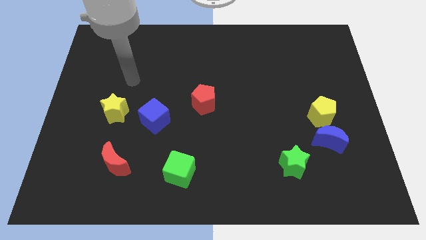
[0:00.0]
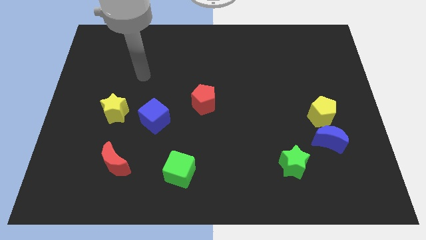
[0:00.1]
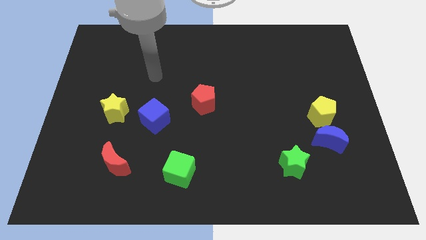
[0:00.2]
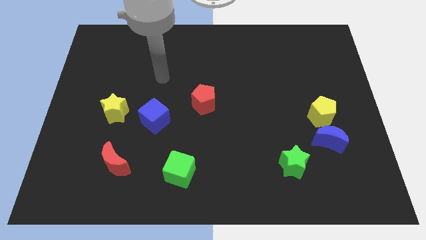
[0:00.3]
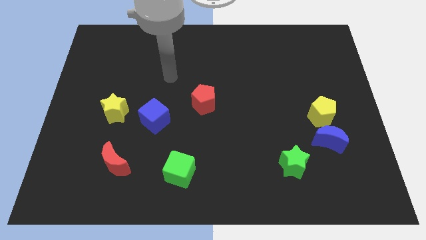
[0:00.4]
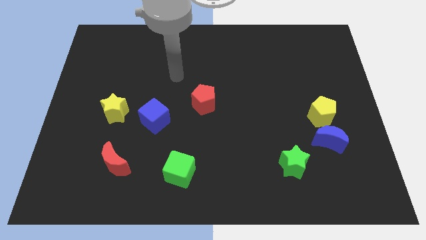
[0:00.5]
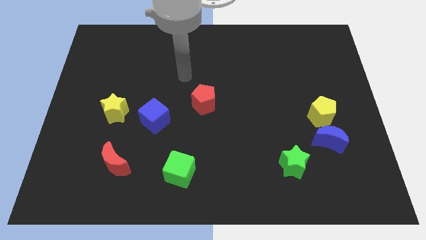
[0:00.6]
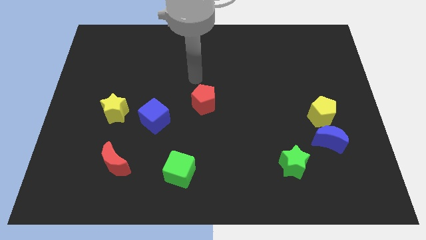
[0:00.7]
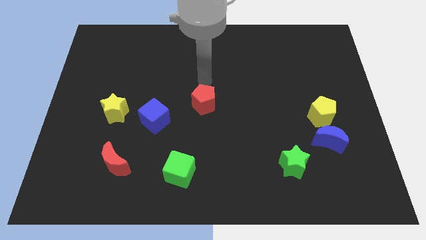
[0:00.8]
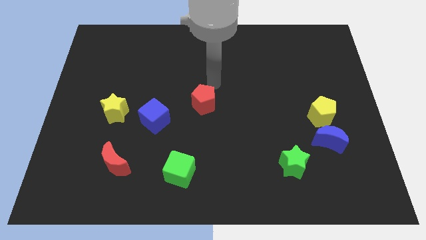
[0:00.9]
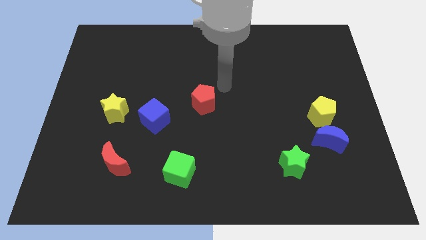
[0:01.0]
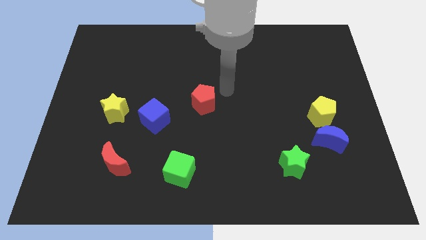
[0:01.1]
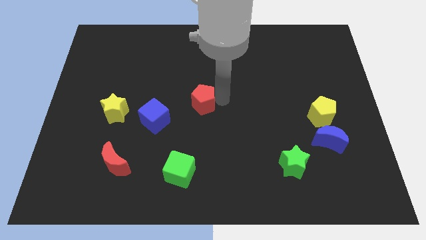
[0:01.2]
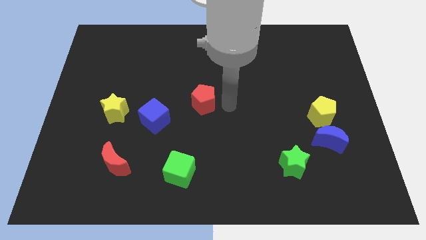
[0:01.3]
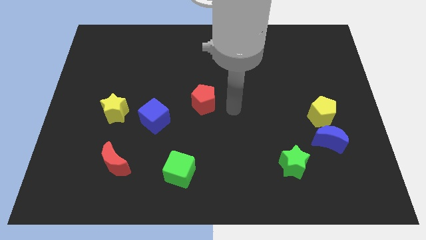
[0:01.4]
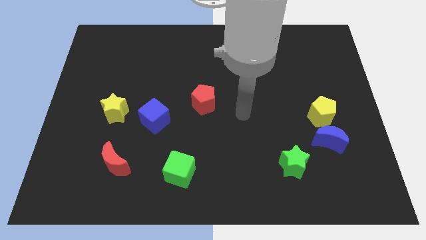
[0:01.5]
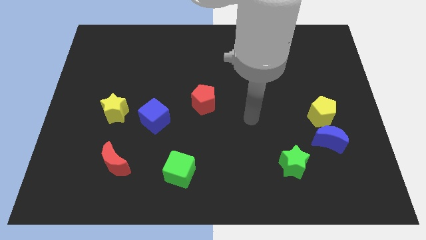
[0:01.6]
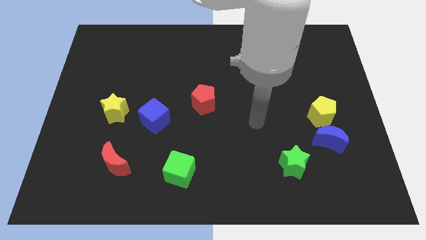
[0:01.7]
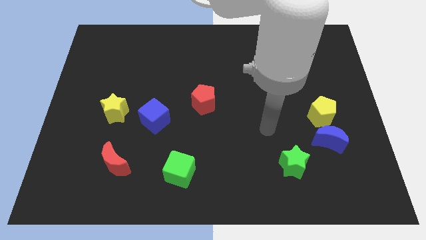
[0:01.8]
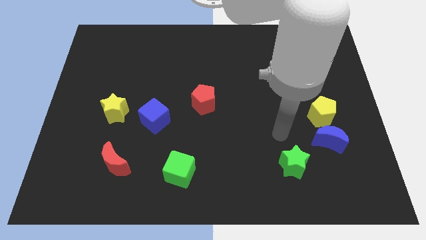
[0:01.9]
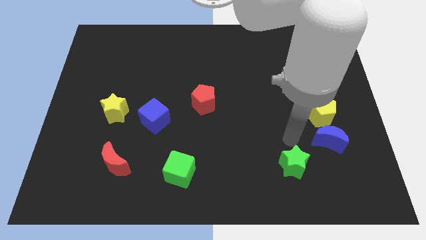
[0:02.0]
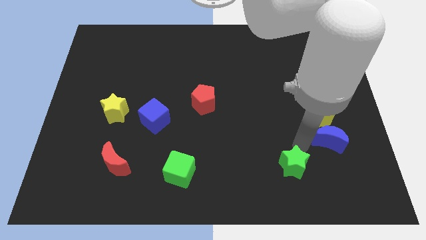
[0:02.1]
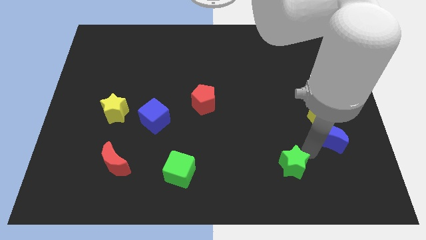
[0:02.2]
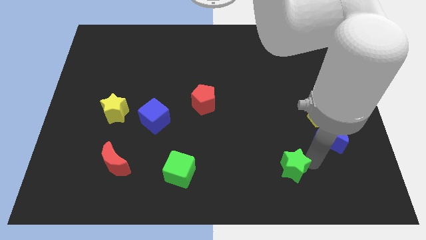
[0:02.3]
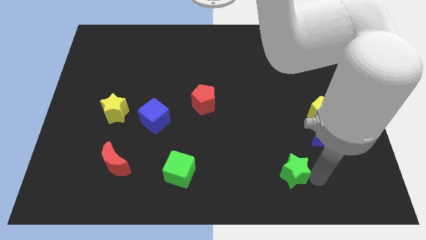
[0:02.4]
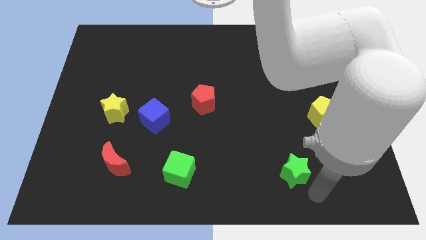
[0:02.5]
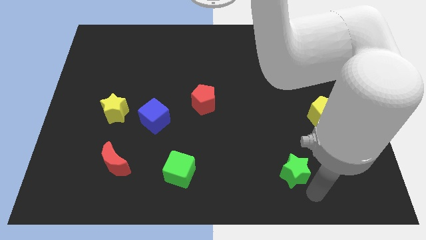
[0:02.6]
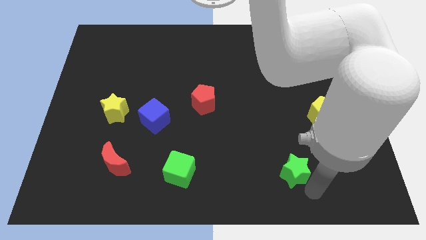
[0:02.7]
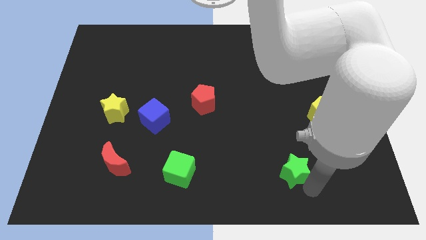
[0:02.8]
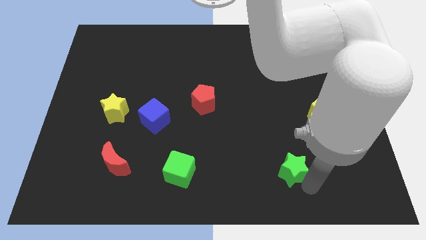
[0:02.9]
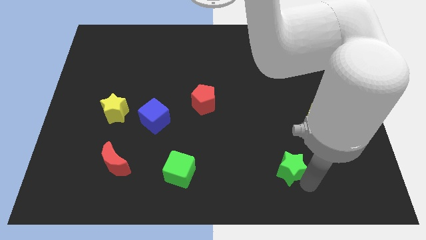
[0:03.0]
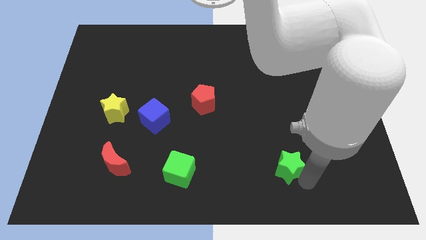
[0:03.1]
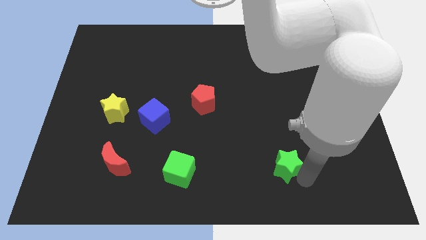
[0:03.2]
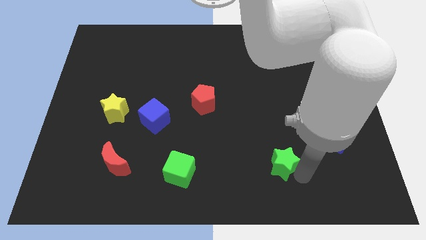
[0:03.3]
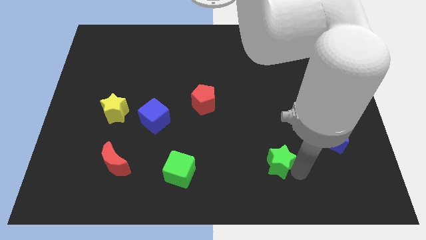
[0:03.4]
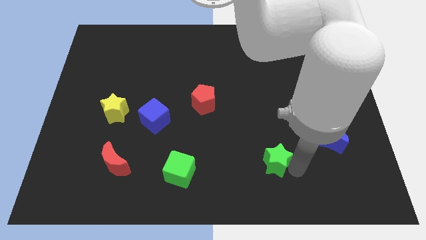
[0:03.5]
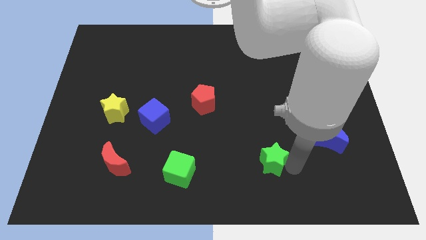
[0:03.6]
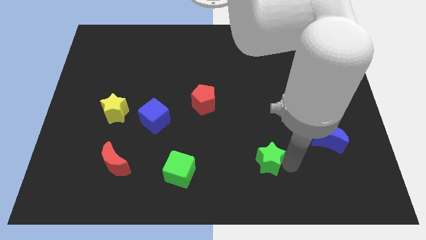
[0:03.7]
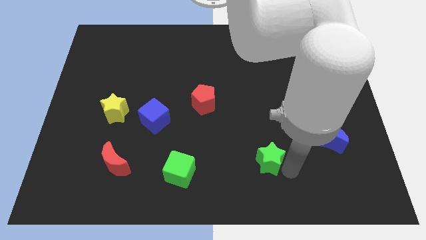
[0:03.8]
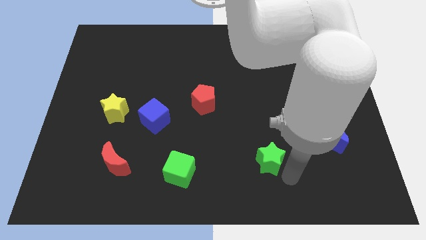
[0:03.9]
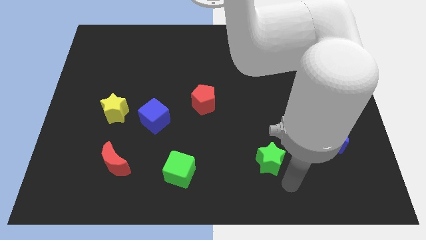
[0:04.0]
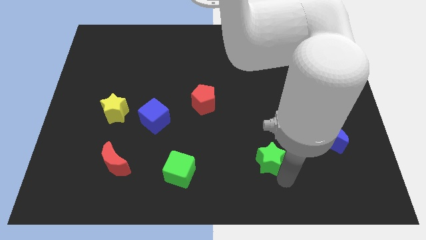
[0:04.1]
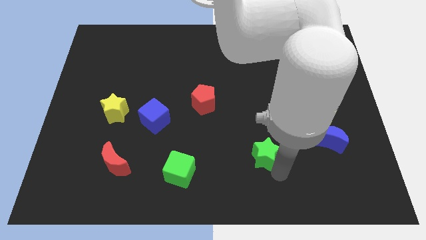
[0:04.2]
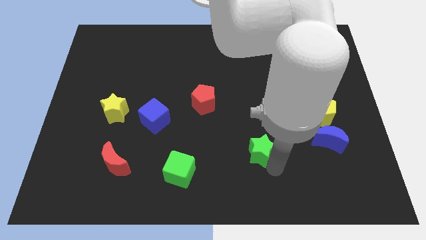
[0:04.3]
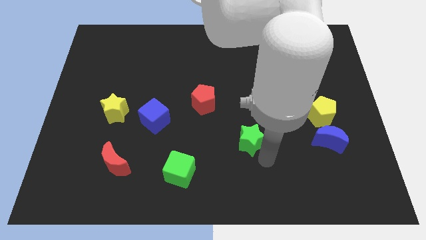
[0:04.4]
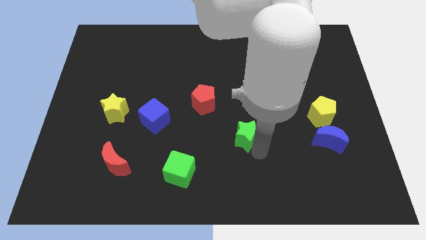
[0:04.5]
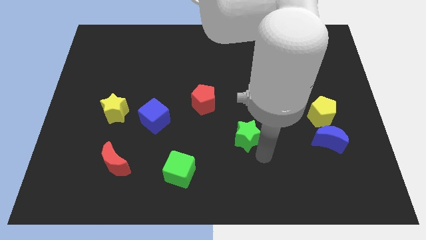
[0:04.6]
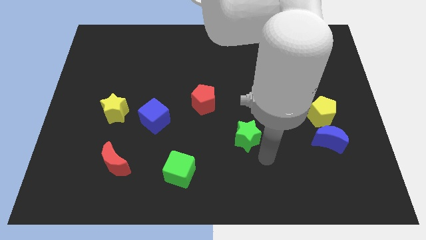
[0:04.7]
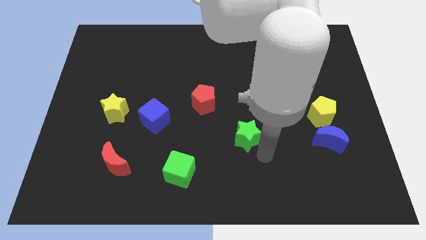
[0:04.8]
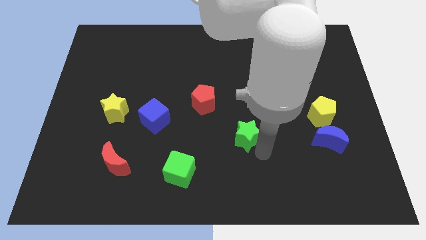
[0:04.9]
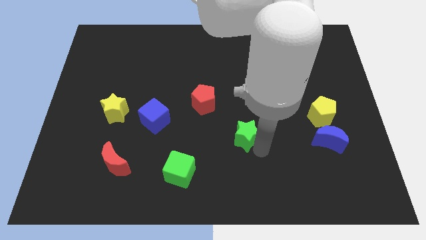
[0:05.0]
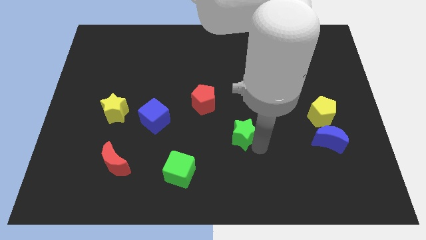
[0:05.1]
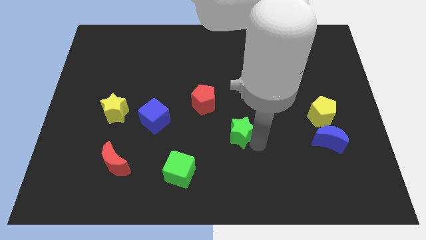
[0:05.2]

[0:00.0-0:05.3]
move the green star to the bottom right side of the red pentagon

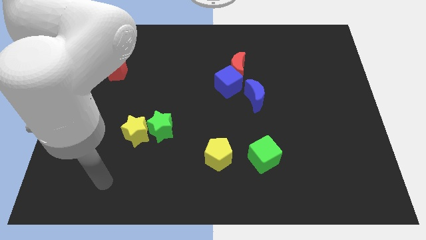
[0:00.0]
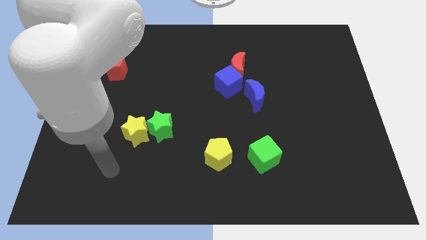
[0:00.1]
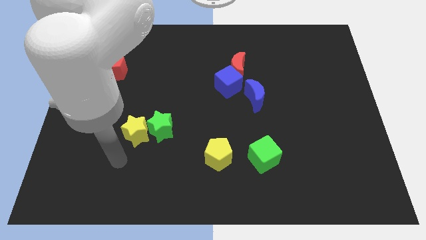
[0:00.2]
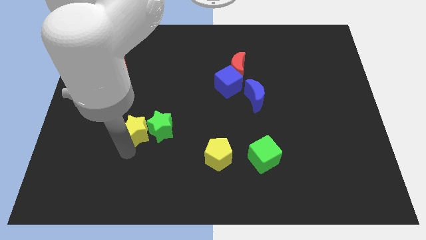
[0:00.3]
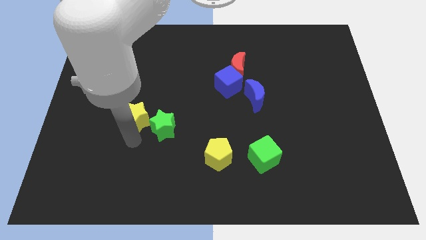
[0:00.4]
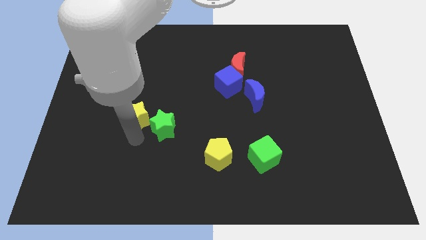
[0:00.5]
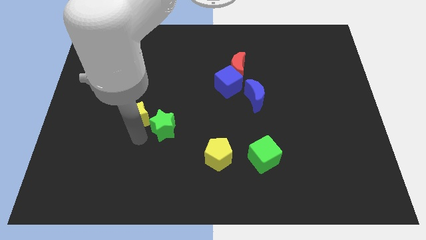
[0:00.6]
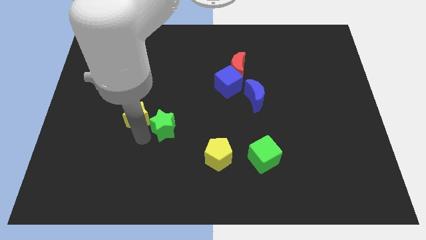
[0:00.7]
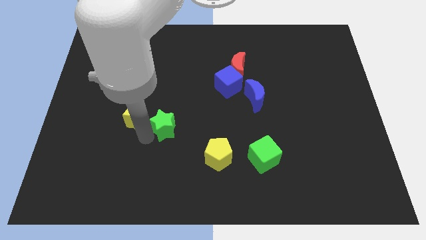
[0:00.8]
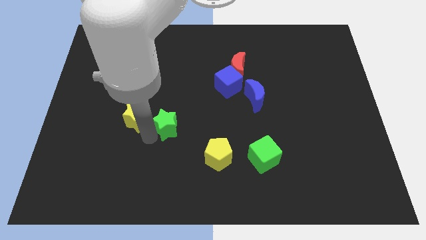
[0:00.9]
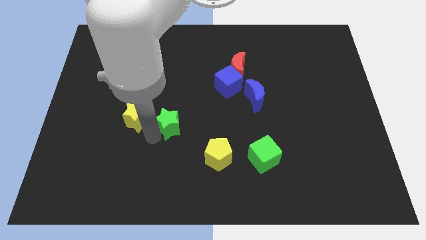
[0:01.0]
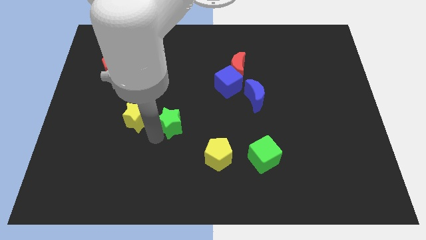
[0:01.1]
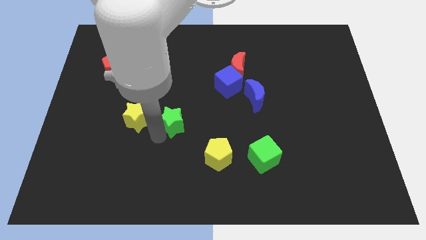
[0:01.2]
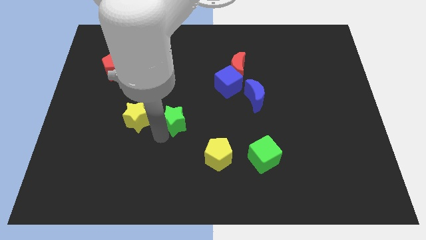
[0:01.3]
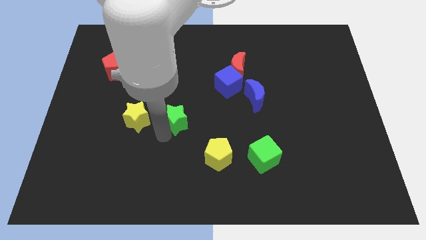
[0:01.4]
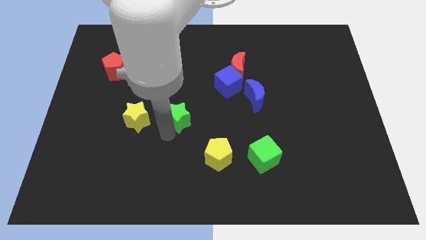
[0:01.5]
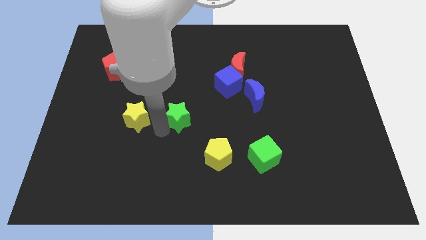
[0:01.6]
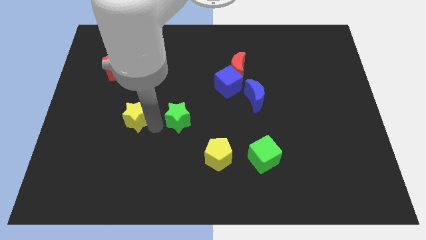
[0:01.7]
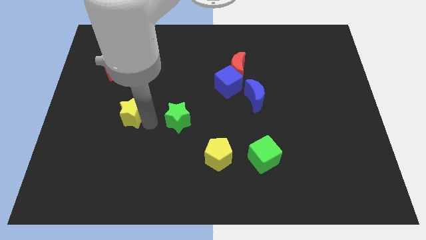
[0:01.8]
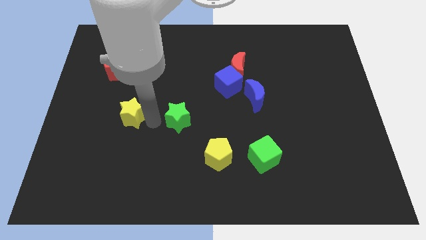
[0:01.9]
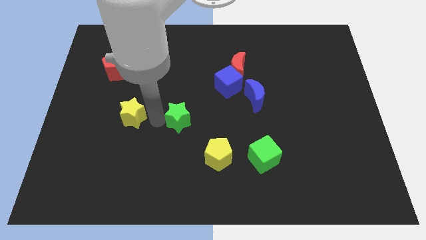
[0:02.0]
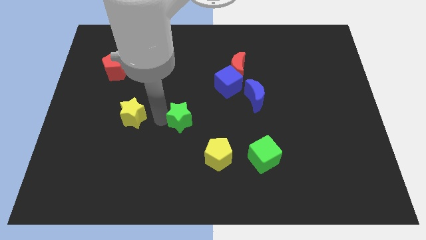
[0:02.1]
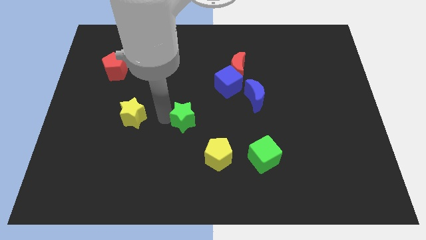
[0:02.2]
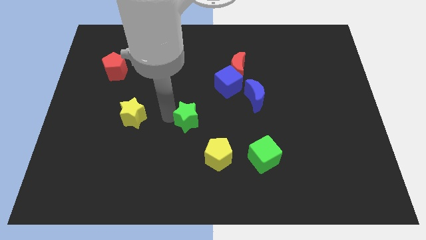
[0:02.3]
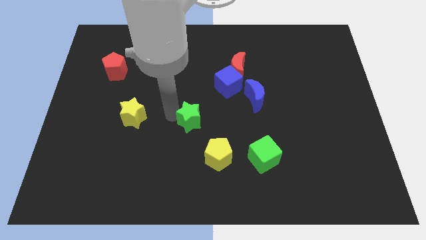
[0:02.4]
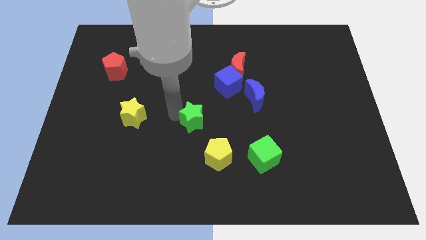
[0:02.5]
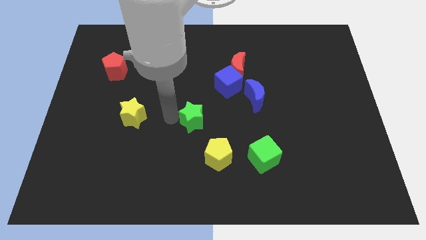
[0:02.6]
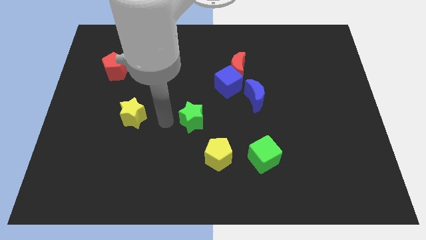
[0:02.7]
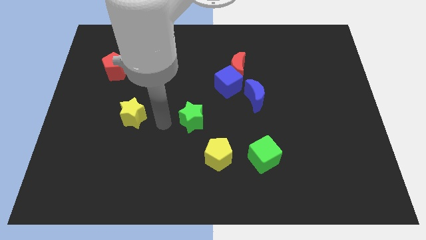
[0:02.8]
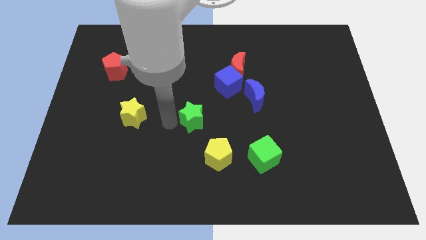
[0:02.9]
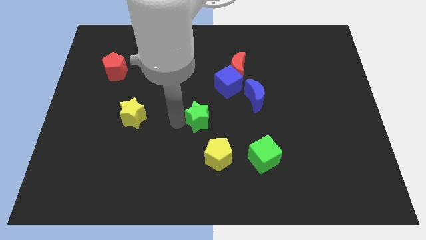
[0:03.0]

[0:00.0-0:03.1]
put the green star above the yellow pentagon
